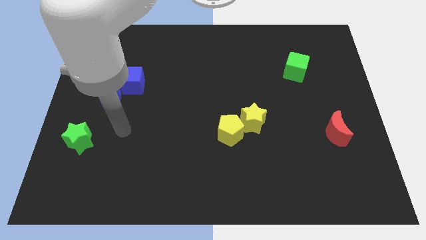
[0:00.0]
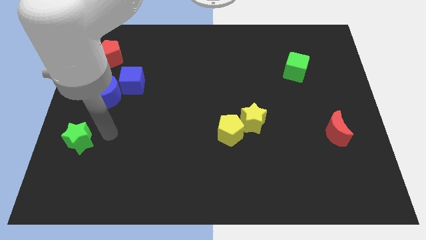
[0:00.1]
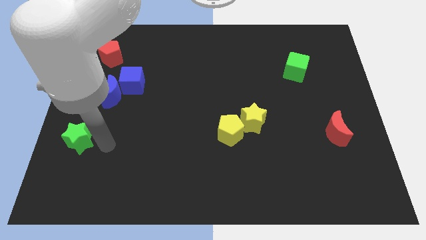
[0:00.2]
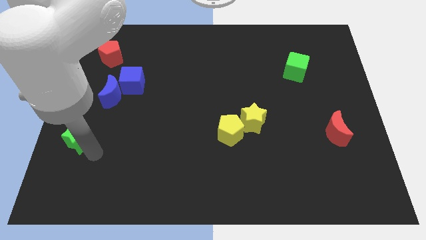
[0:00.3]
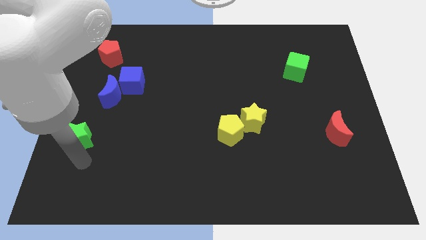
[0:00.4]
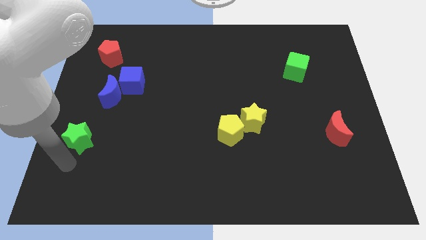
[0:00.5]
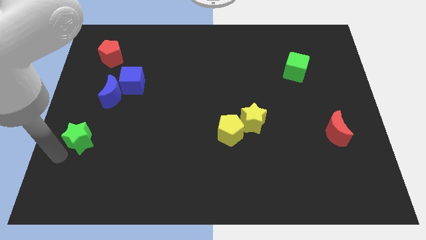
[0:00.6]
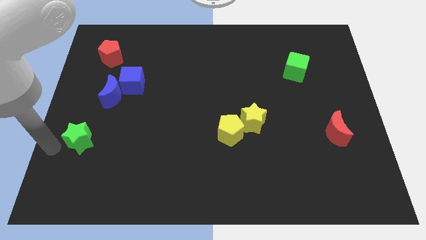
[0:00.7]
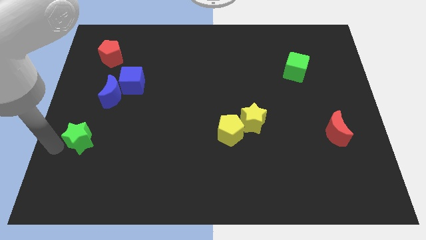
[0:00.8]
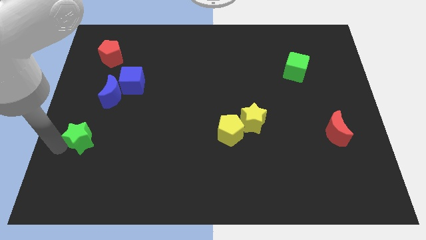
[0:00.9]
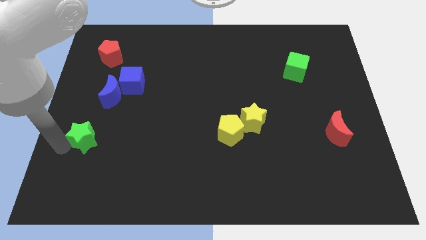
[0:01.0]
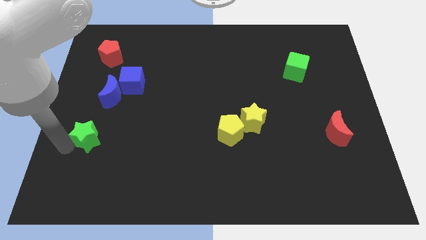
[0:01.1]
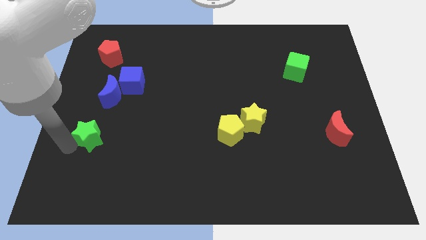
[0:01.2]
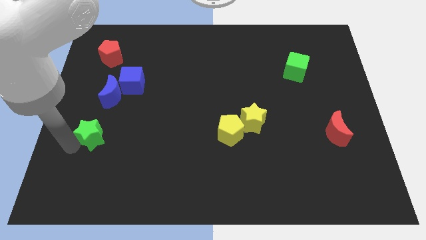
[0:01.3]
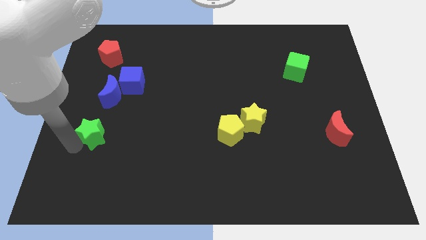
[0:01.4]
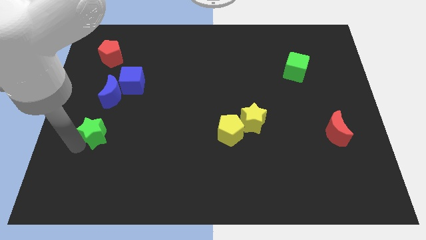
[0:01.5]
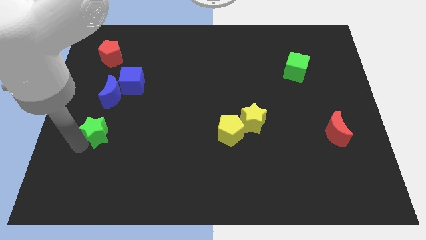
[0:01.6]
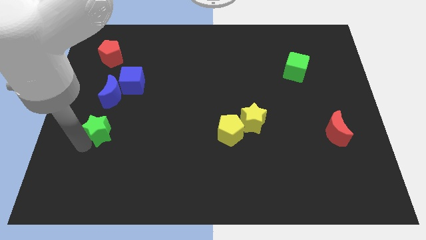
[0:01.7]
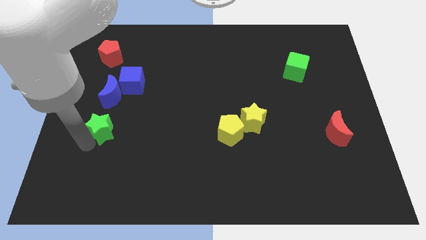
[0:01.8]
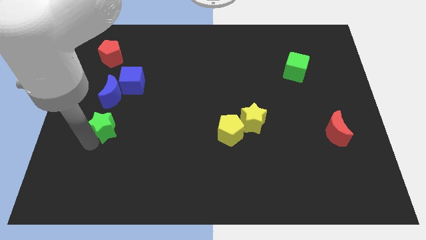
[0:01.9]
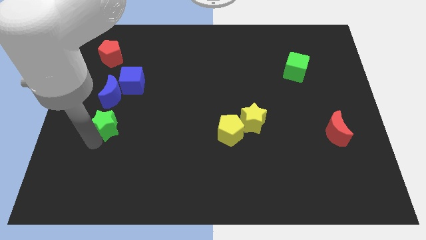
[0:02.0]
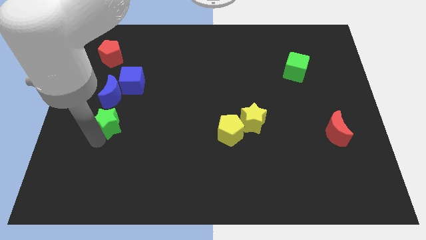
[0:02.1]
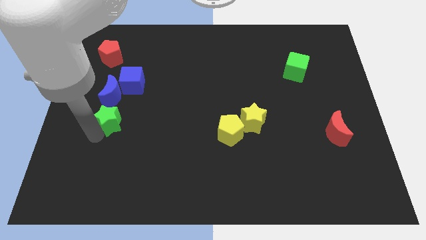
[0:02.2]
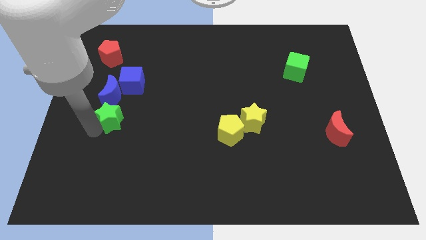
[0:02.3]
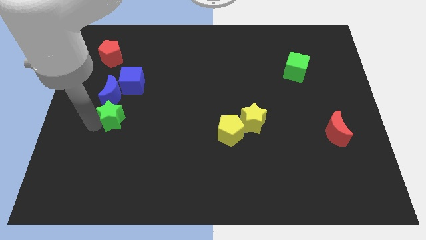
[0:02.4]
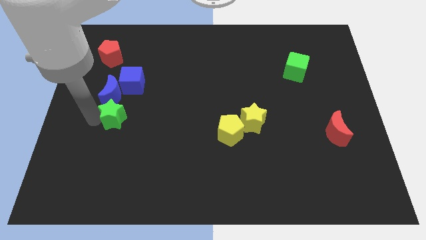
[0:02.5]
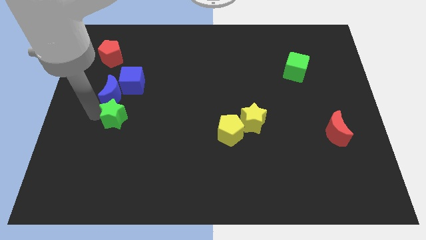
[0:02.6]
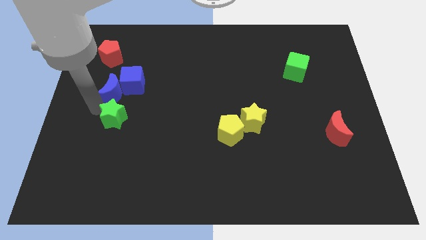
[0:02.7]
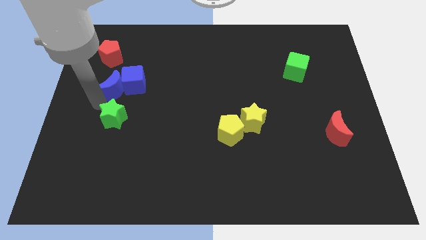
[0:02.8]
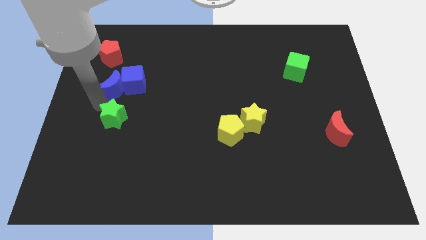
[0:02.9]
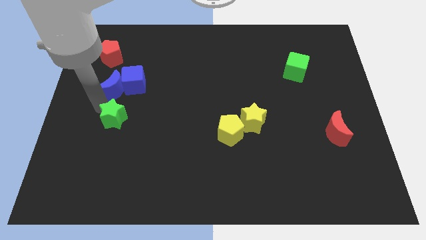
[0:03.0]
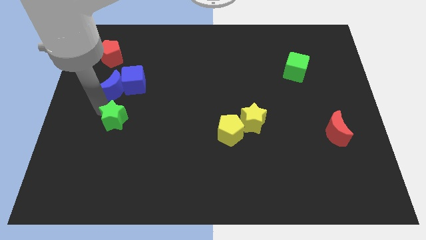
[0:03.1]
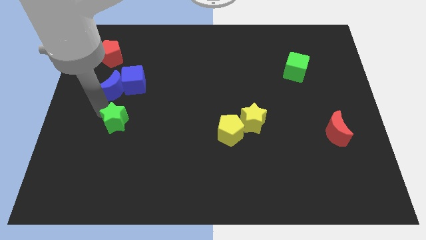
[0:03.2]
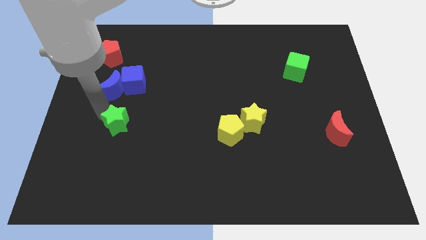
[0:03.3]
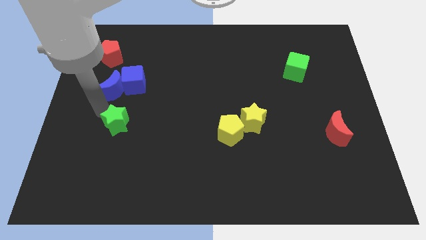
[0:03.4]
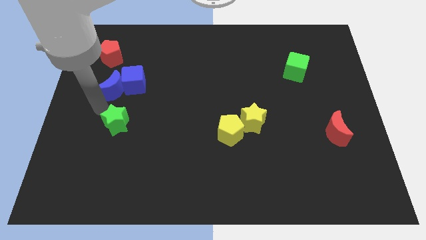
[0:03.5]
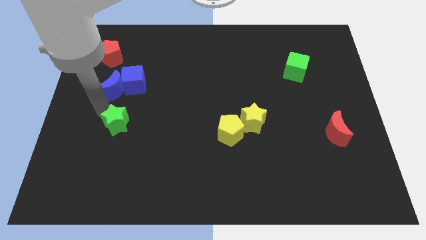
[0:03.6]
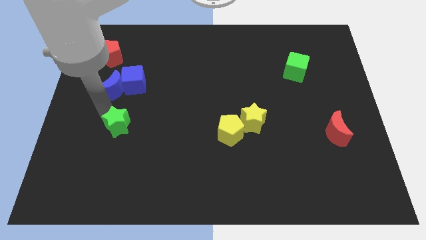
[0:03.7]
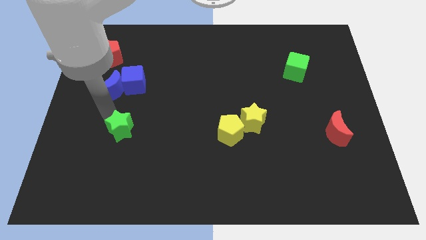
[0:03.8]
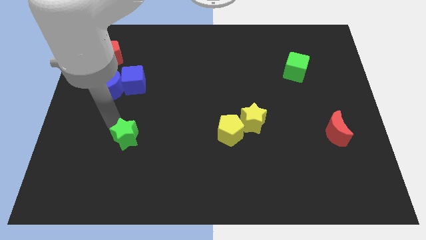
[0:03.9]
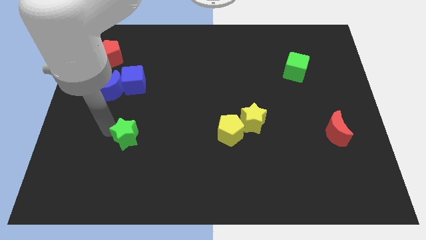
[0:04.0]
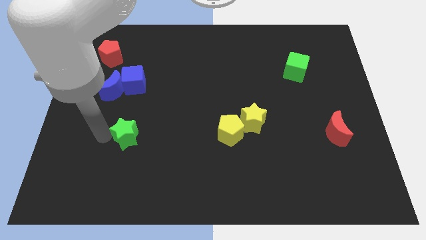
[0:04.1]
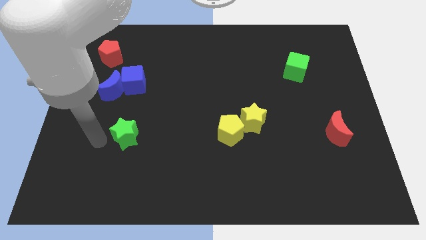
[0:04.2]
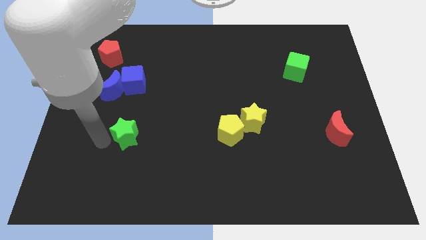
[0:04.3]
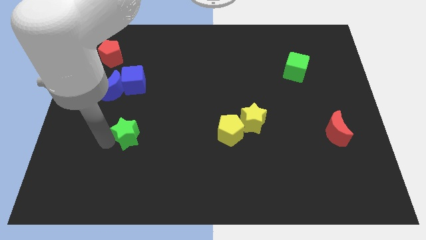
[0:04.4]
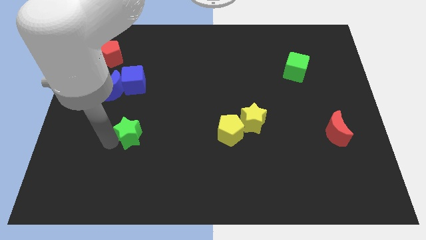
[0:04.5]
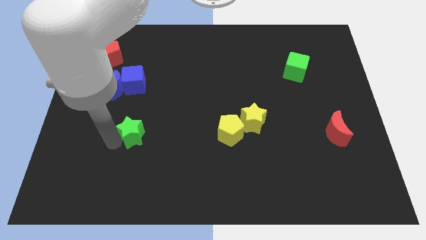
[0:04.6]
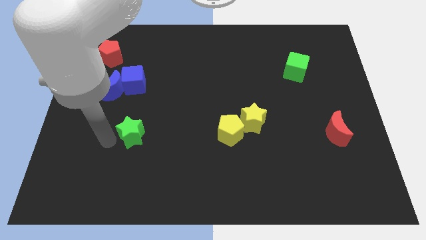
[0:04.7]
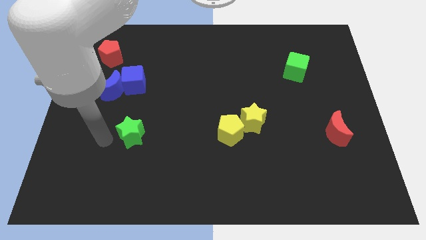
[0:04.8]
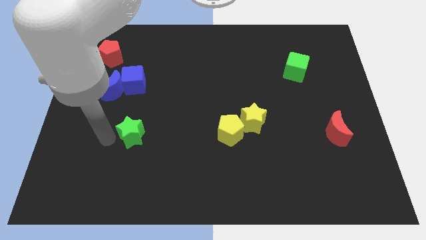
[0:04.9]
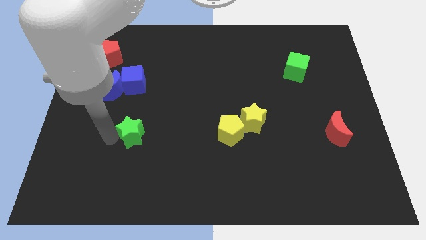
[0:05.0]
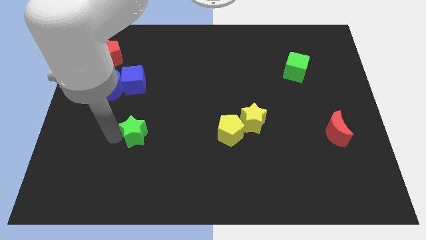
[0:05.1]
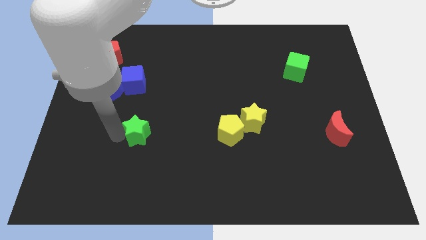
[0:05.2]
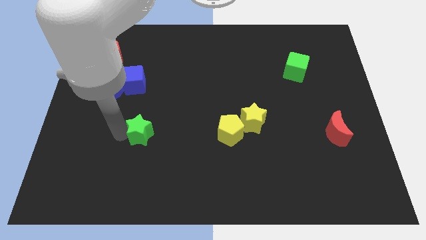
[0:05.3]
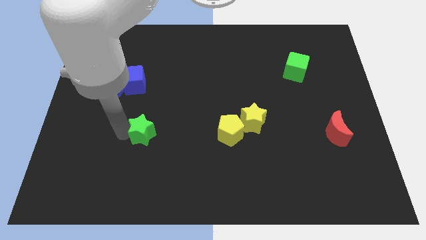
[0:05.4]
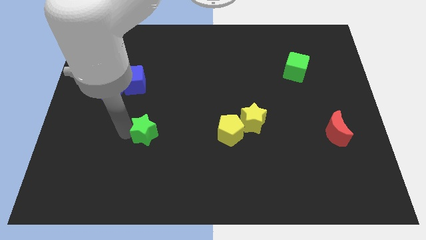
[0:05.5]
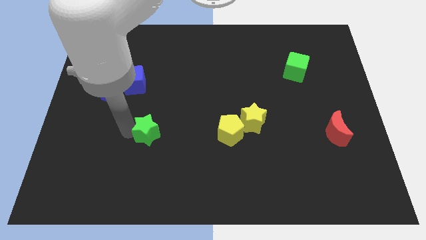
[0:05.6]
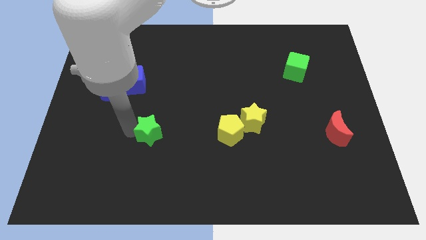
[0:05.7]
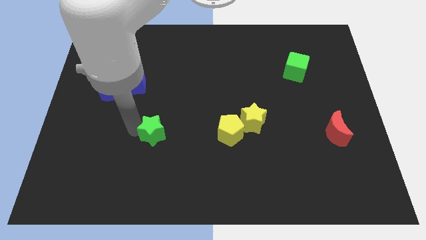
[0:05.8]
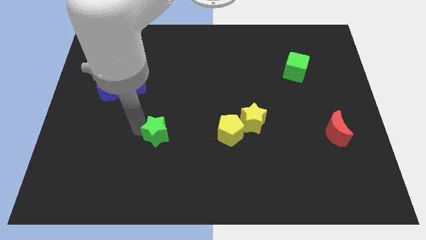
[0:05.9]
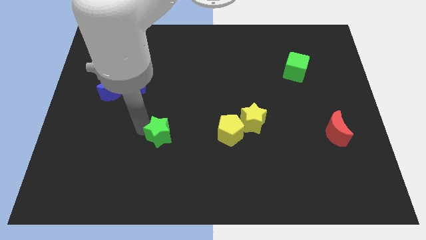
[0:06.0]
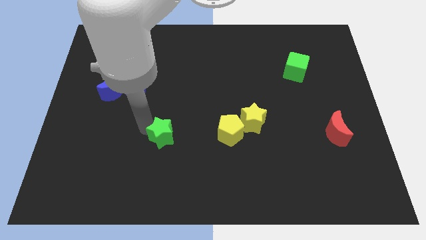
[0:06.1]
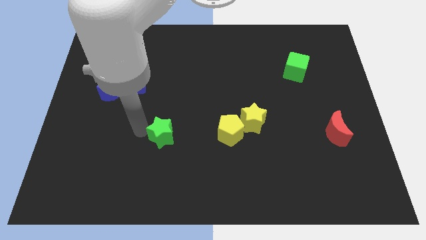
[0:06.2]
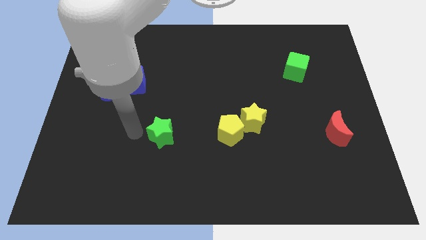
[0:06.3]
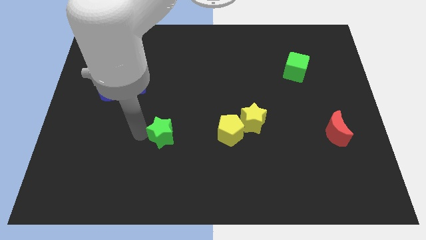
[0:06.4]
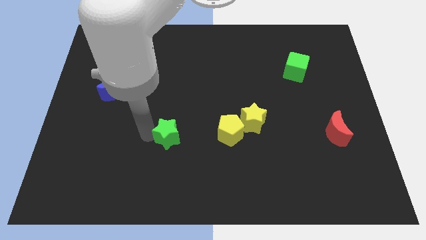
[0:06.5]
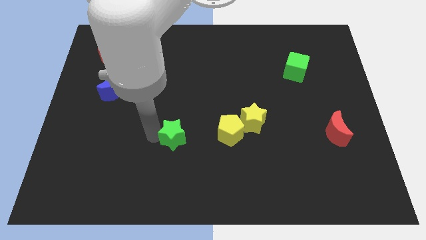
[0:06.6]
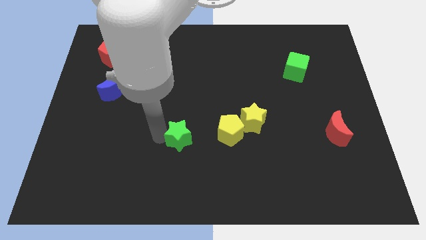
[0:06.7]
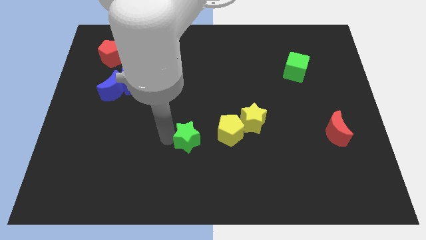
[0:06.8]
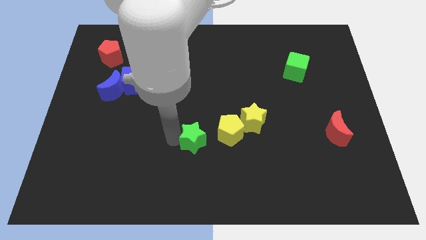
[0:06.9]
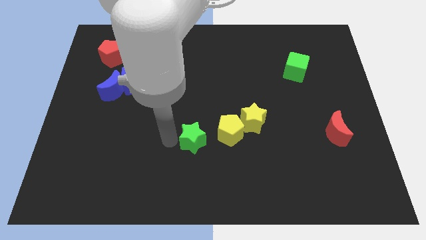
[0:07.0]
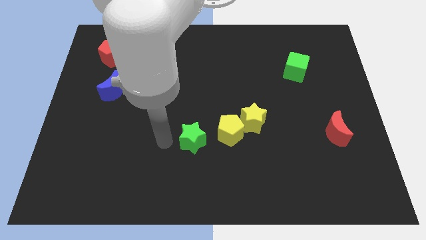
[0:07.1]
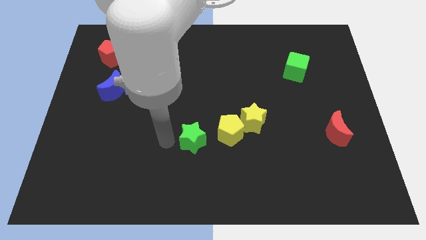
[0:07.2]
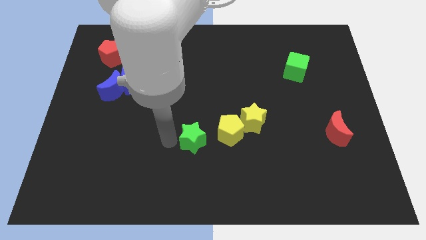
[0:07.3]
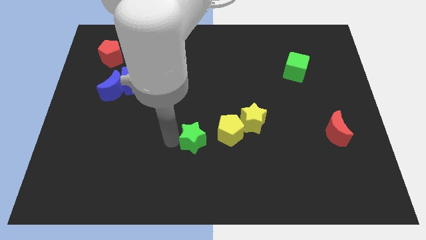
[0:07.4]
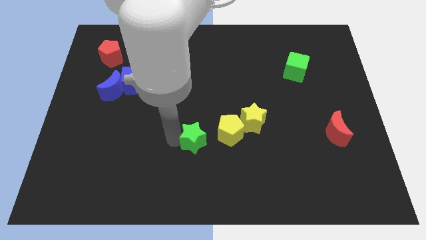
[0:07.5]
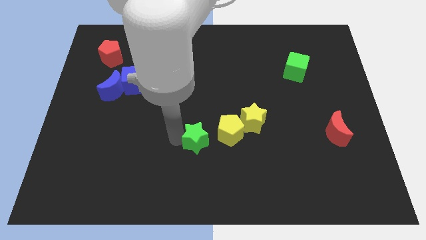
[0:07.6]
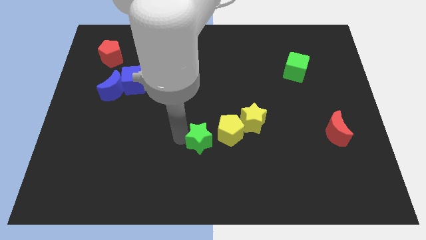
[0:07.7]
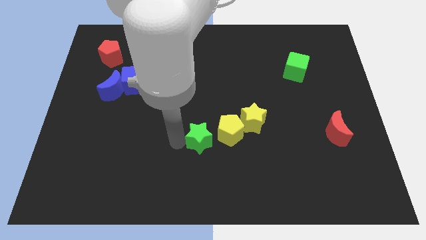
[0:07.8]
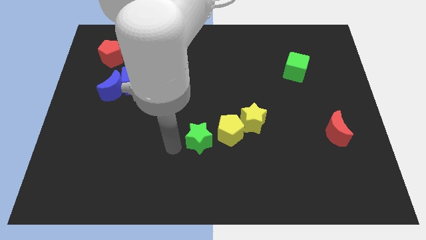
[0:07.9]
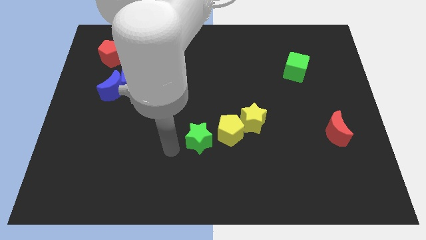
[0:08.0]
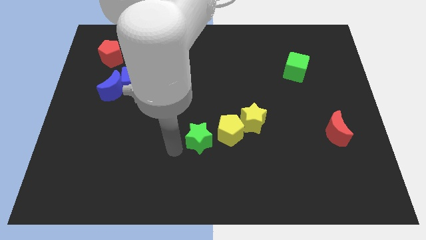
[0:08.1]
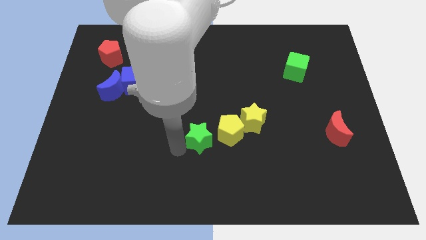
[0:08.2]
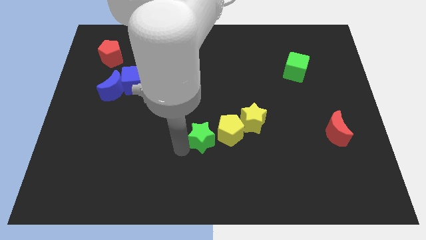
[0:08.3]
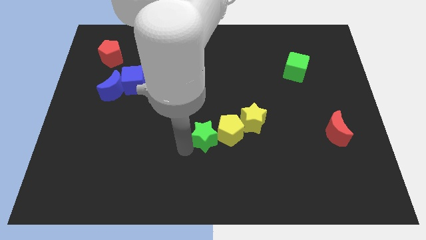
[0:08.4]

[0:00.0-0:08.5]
put the green star towards the yellow pentagon
